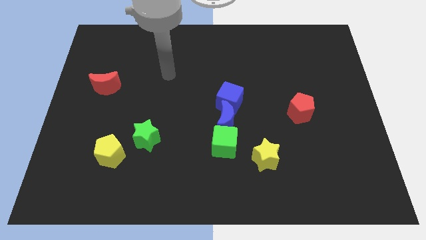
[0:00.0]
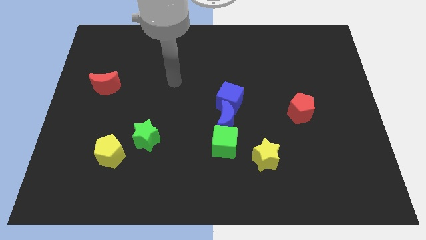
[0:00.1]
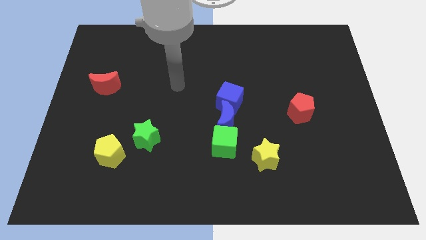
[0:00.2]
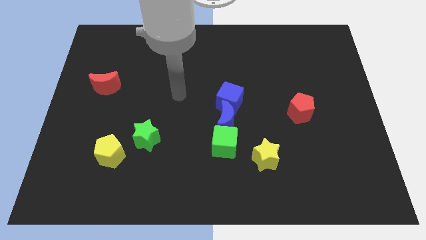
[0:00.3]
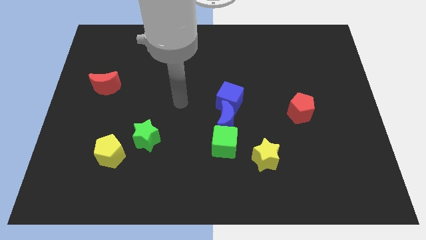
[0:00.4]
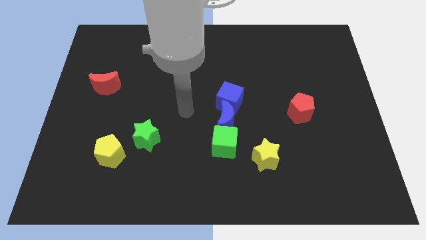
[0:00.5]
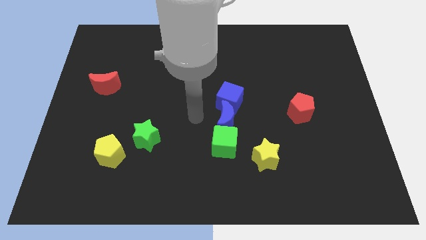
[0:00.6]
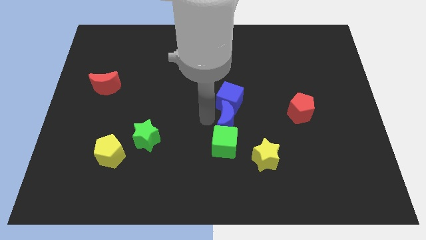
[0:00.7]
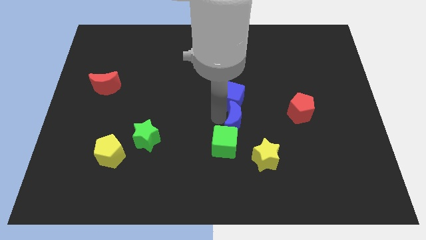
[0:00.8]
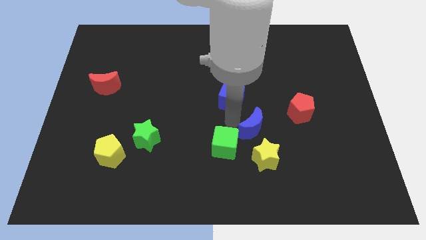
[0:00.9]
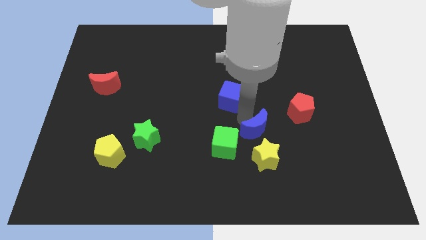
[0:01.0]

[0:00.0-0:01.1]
pull the blue cube apart from the blue moon

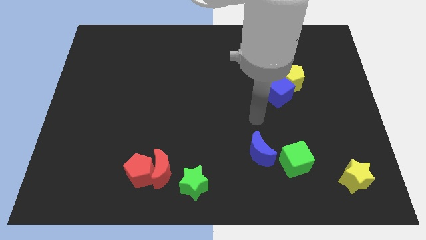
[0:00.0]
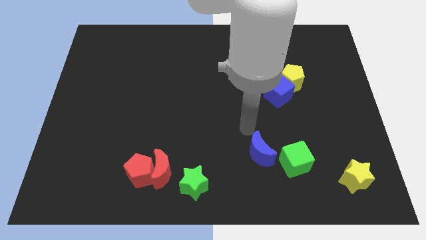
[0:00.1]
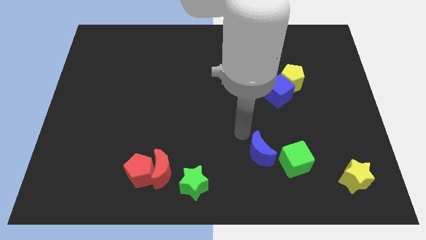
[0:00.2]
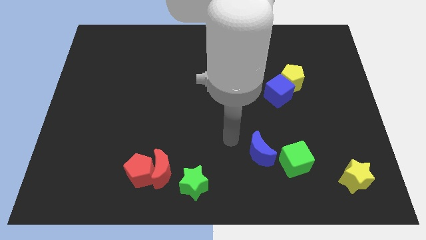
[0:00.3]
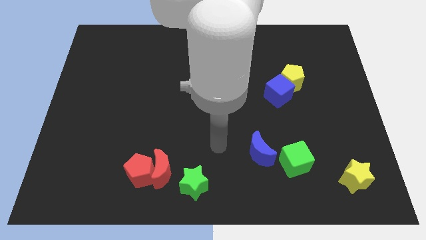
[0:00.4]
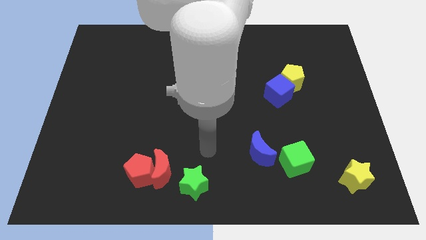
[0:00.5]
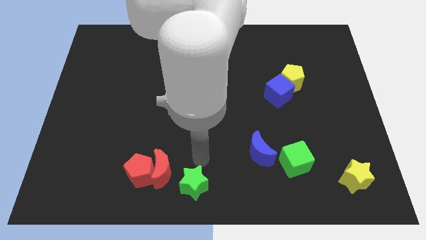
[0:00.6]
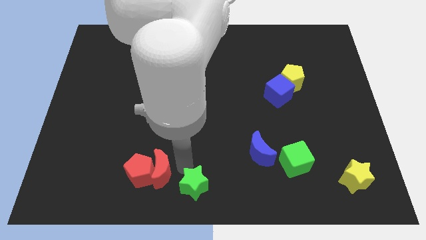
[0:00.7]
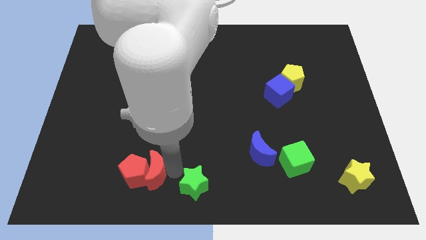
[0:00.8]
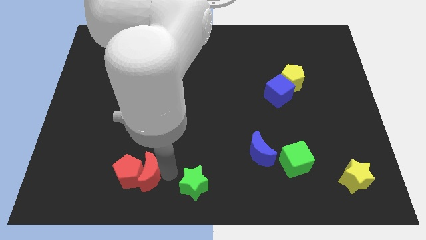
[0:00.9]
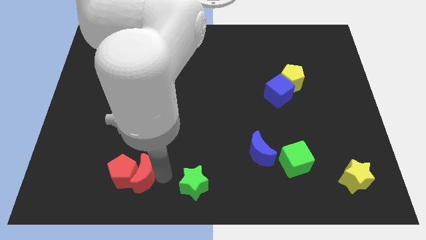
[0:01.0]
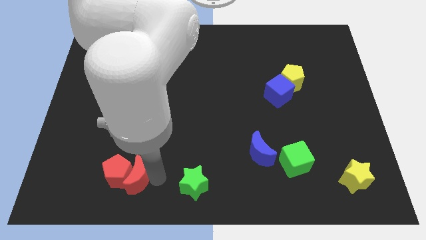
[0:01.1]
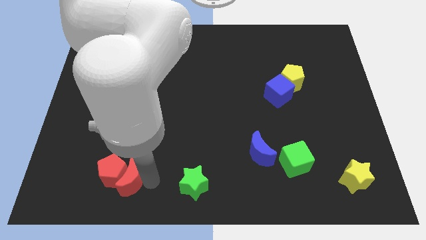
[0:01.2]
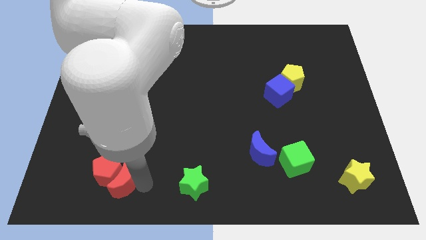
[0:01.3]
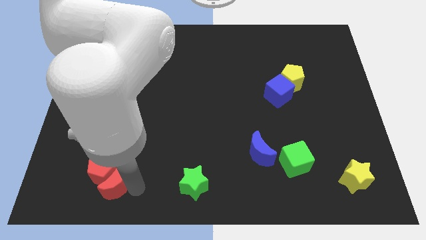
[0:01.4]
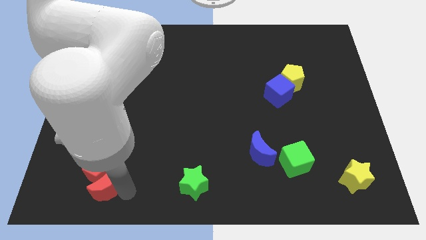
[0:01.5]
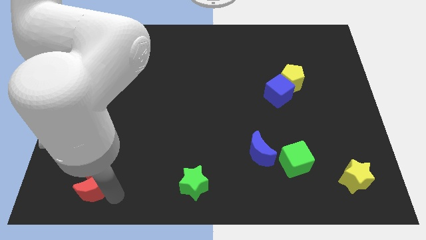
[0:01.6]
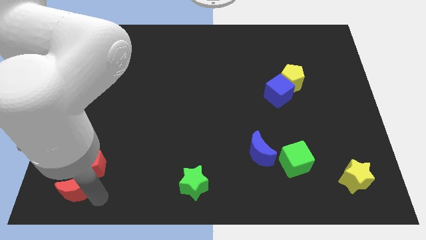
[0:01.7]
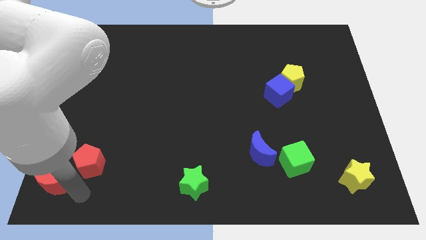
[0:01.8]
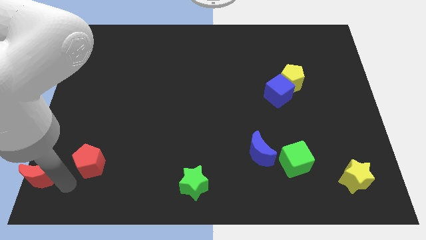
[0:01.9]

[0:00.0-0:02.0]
separate the red pentagon from the red moon

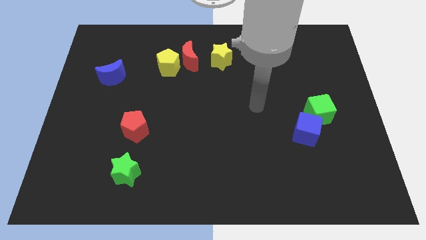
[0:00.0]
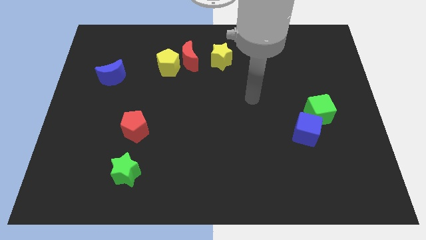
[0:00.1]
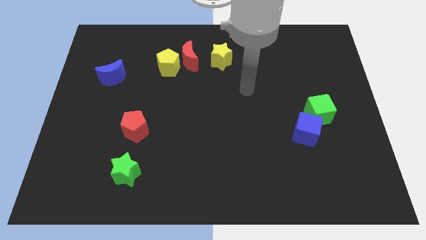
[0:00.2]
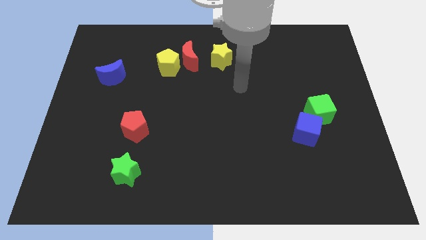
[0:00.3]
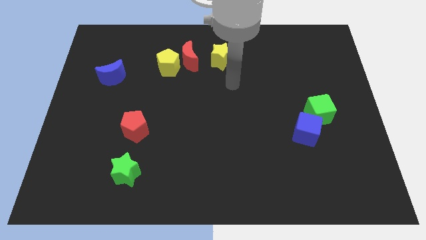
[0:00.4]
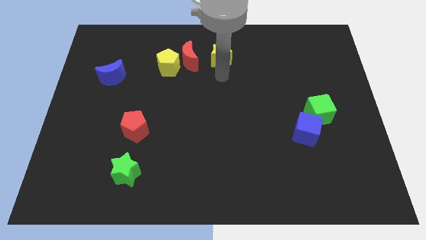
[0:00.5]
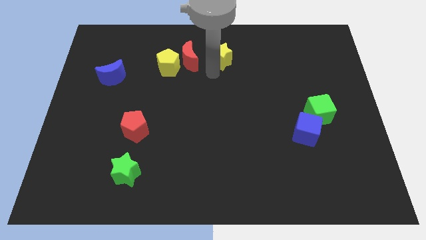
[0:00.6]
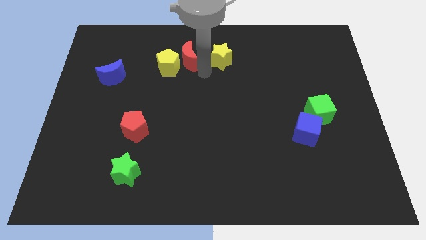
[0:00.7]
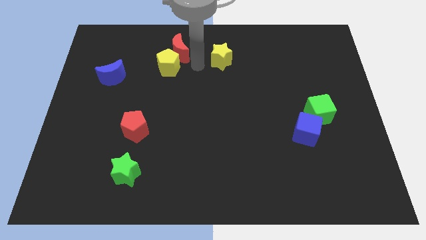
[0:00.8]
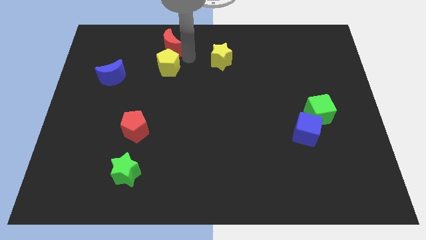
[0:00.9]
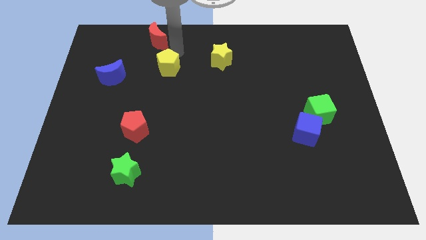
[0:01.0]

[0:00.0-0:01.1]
move the yellow pentagon away from the red moon

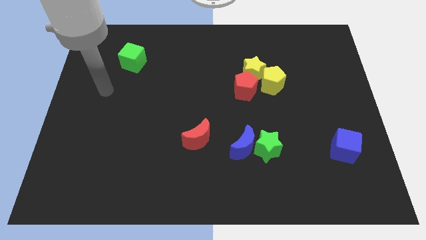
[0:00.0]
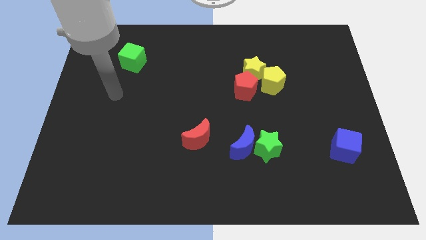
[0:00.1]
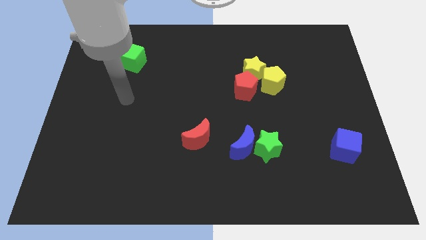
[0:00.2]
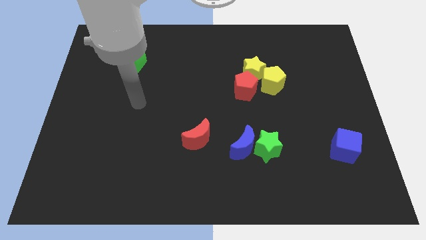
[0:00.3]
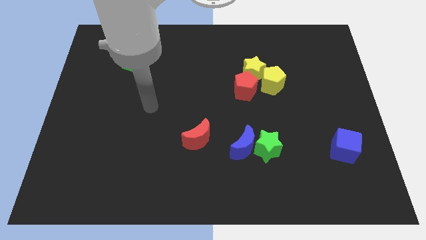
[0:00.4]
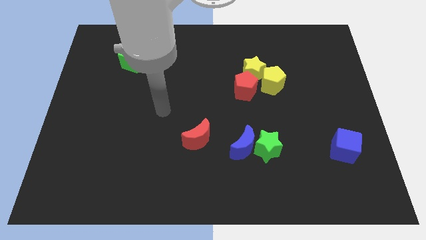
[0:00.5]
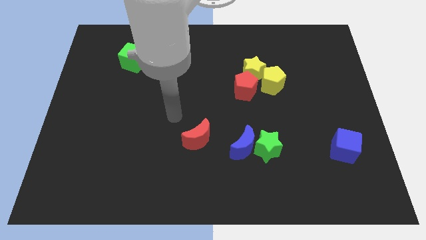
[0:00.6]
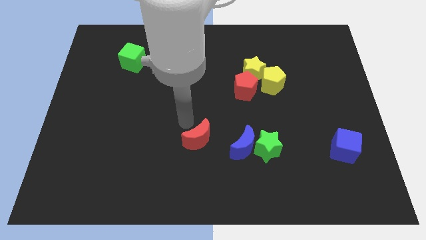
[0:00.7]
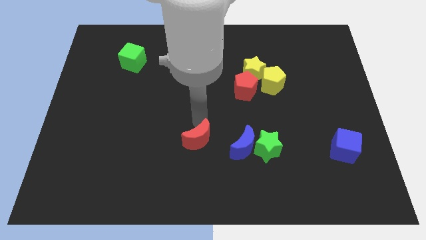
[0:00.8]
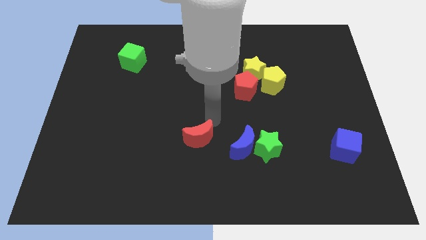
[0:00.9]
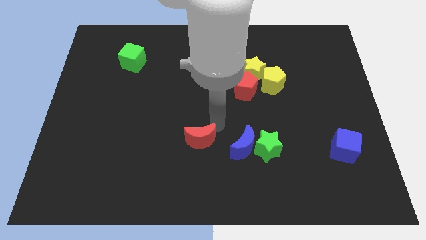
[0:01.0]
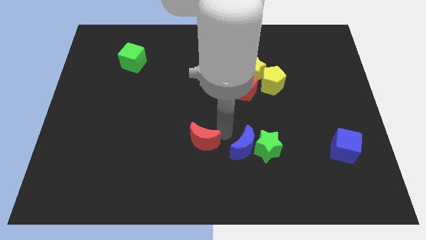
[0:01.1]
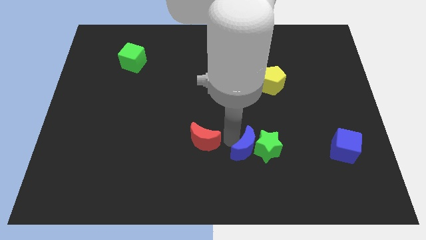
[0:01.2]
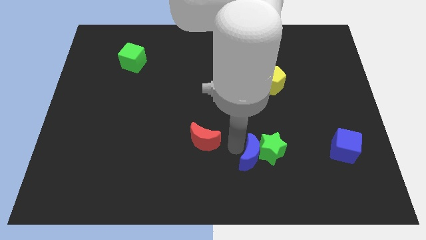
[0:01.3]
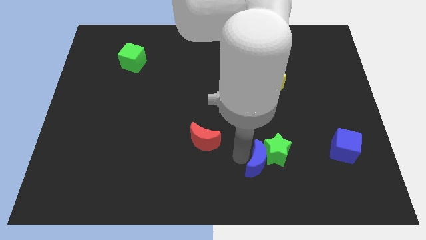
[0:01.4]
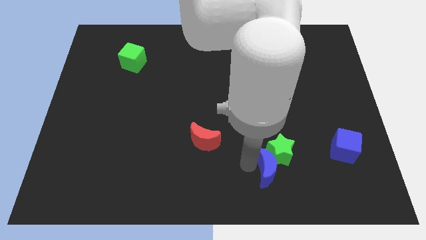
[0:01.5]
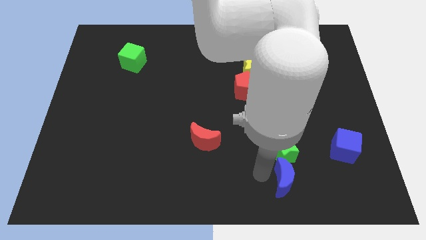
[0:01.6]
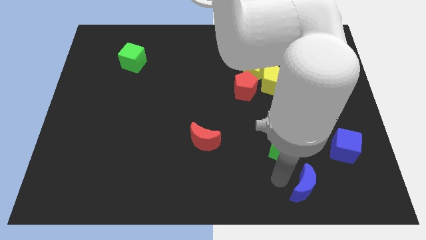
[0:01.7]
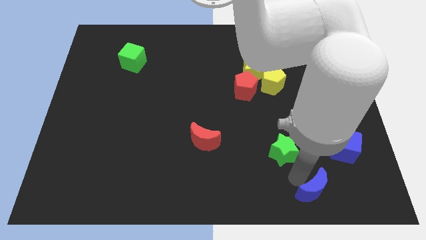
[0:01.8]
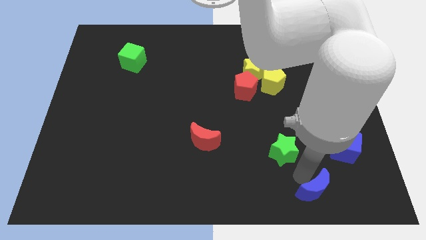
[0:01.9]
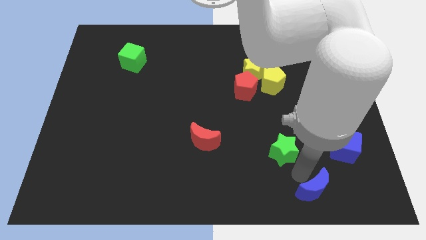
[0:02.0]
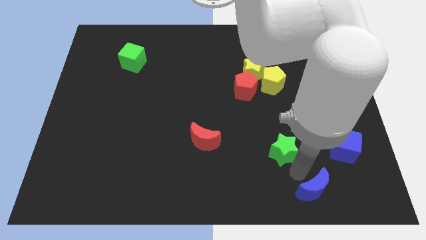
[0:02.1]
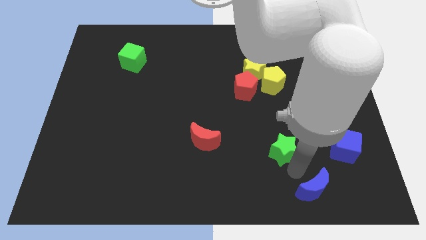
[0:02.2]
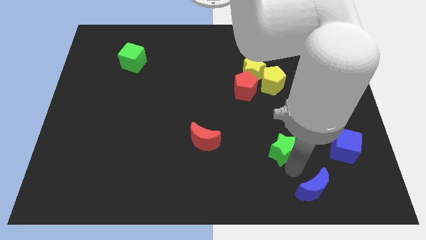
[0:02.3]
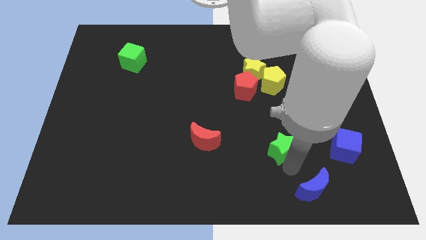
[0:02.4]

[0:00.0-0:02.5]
move the green star away from the blue moon

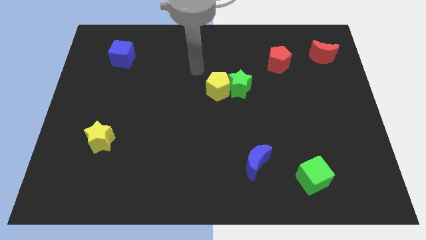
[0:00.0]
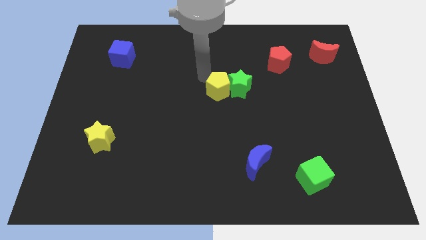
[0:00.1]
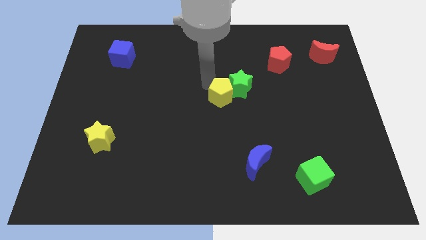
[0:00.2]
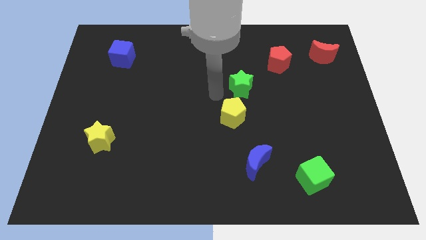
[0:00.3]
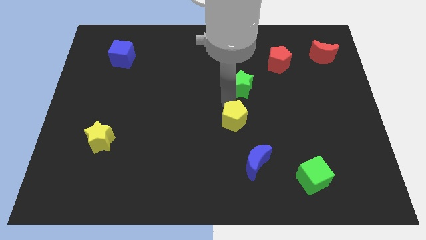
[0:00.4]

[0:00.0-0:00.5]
separate the green star from the yellow pentagon

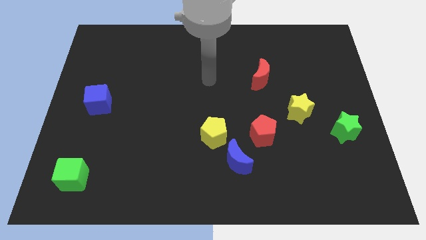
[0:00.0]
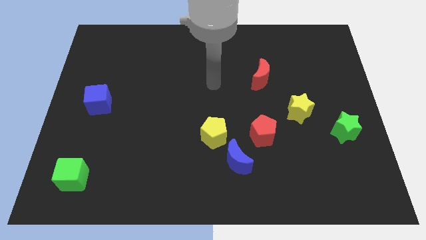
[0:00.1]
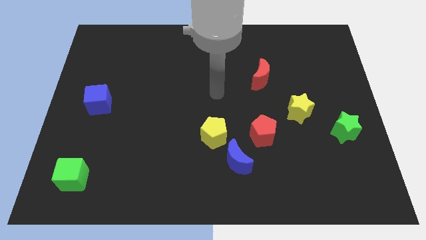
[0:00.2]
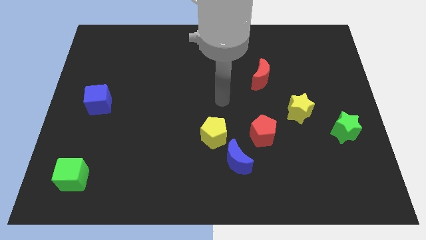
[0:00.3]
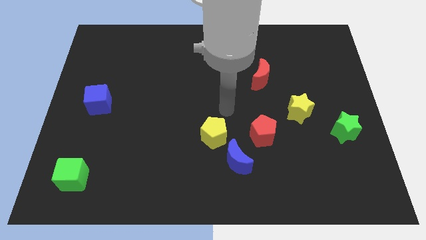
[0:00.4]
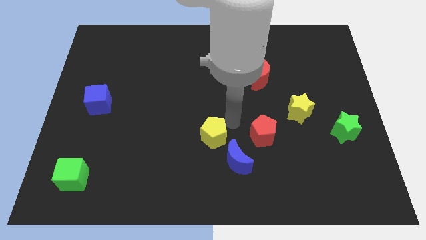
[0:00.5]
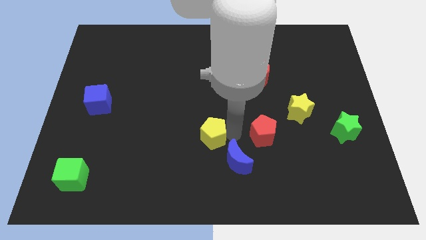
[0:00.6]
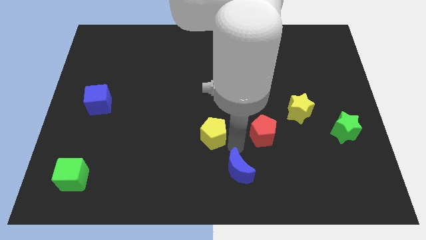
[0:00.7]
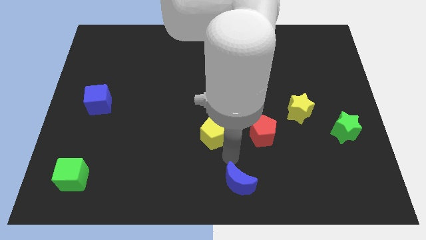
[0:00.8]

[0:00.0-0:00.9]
separate the yellow pentagon from the blue moon

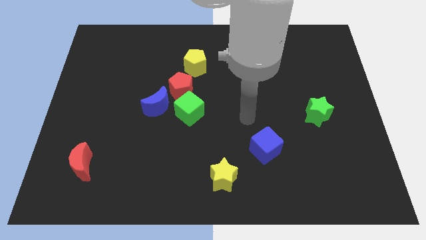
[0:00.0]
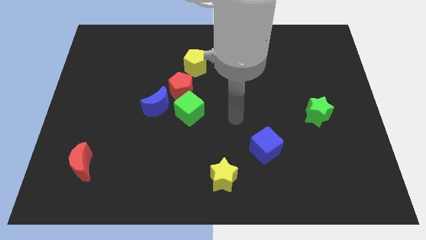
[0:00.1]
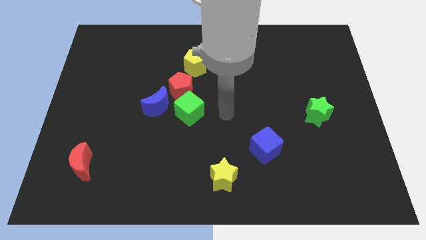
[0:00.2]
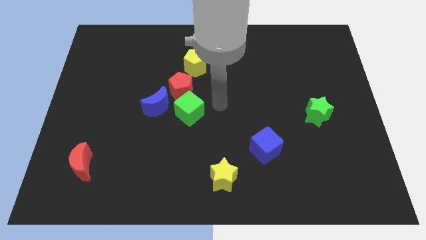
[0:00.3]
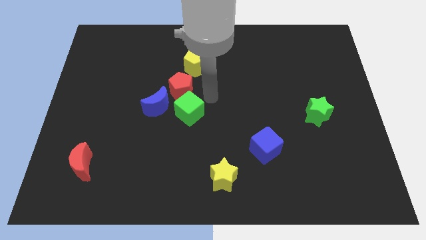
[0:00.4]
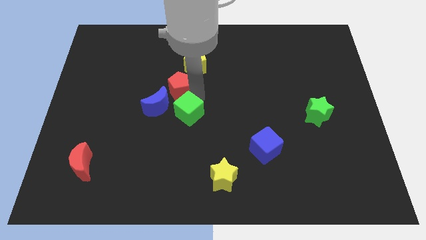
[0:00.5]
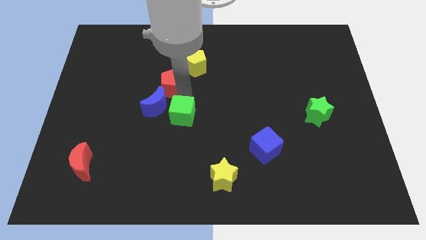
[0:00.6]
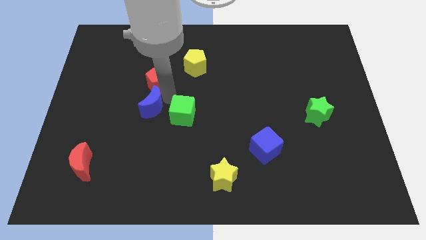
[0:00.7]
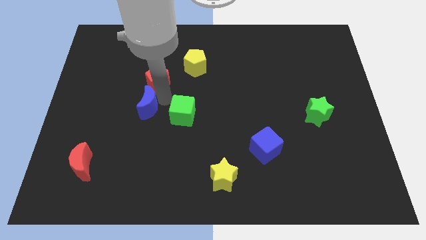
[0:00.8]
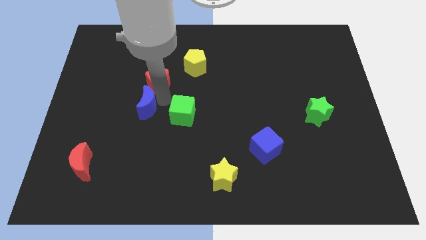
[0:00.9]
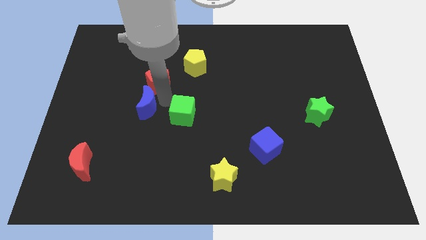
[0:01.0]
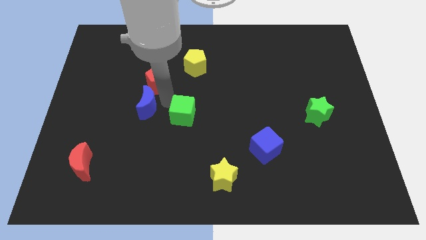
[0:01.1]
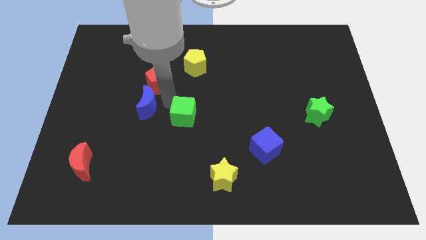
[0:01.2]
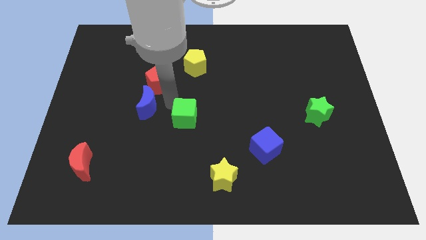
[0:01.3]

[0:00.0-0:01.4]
separate the green cube from the red pentagon and blue moon
